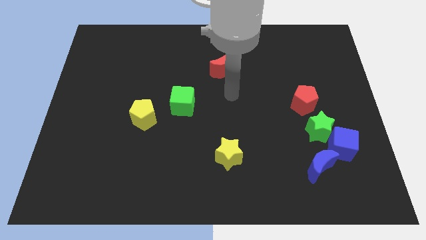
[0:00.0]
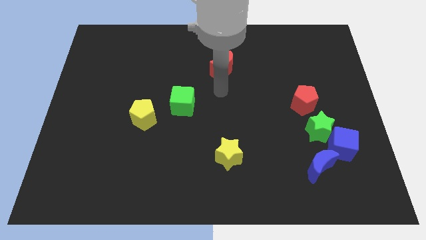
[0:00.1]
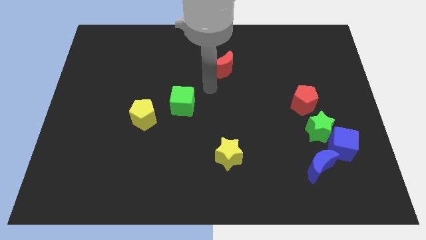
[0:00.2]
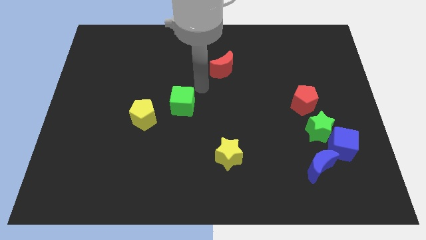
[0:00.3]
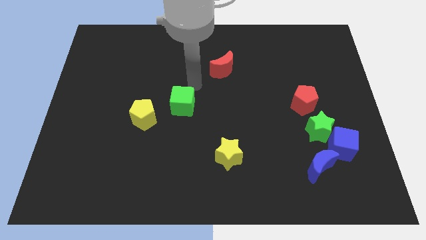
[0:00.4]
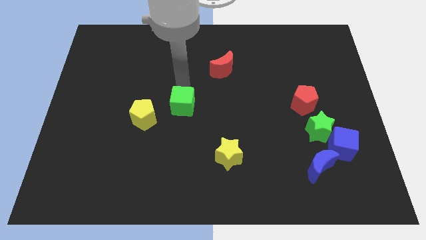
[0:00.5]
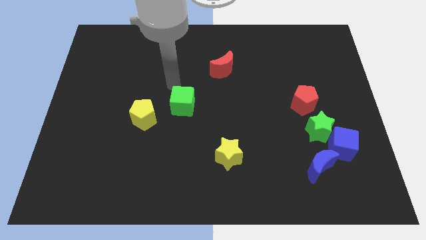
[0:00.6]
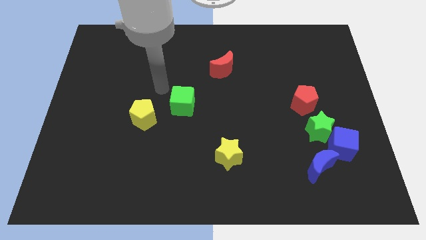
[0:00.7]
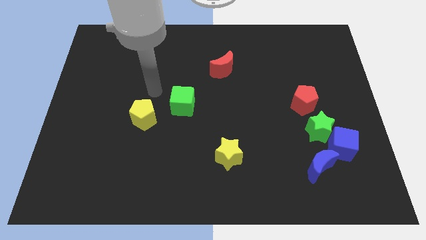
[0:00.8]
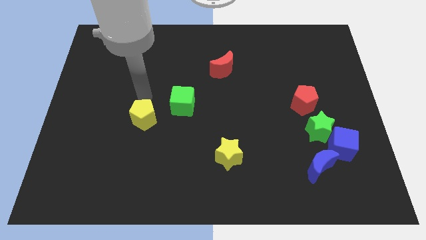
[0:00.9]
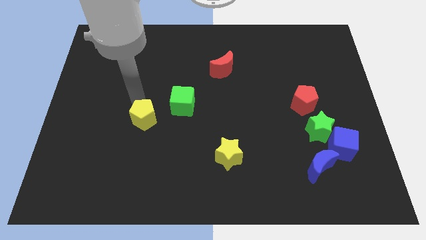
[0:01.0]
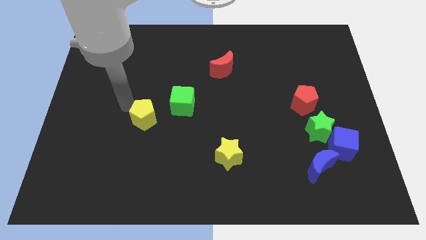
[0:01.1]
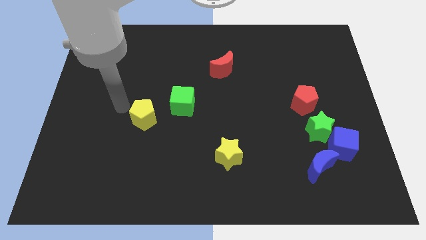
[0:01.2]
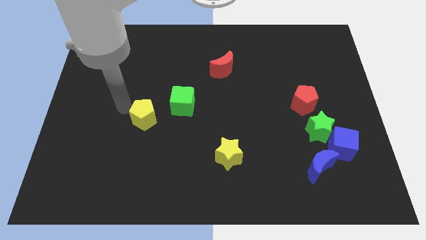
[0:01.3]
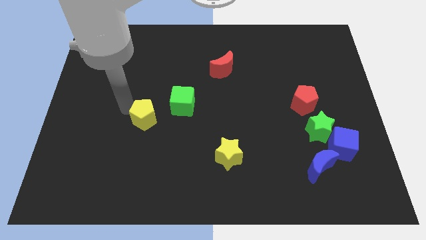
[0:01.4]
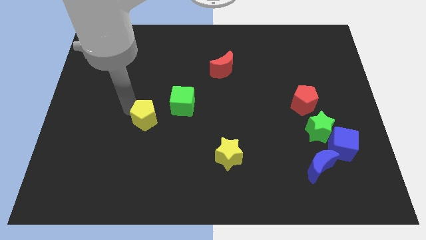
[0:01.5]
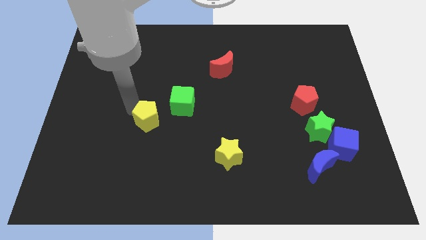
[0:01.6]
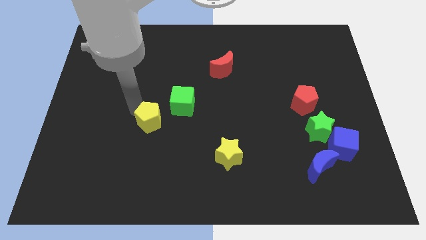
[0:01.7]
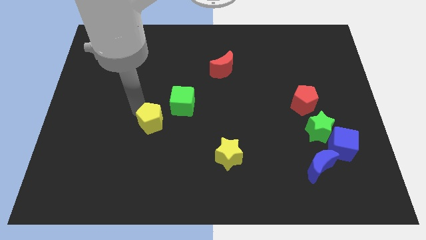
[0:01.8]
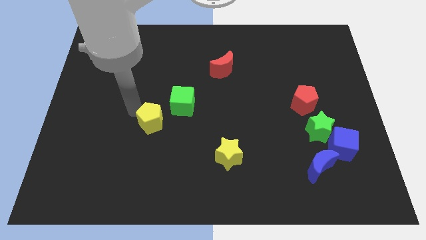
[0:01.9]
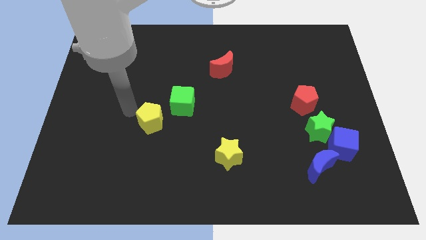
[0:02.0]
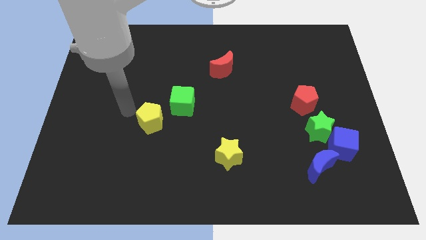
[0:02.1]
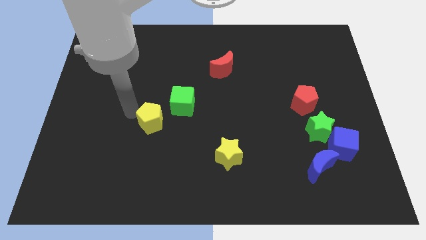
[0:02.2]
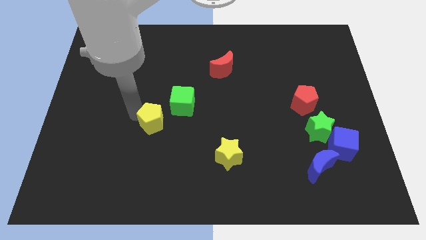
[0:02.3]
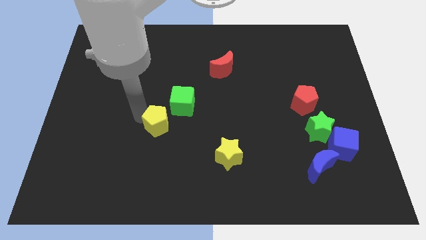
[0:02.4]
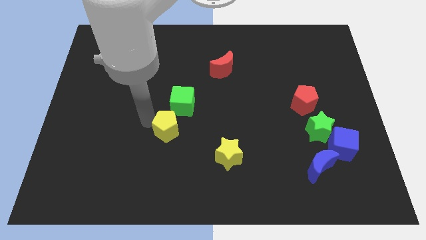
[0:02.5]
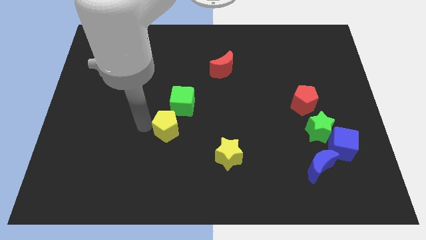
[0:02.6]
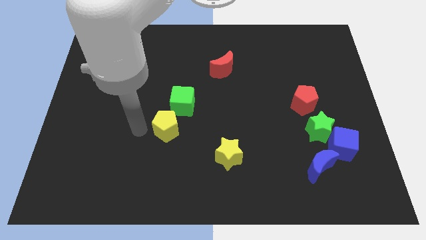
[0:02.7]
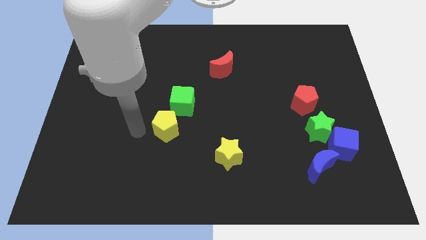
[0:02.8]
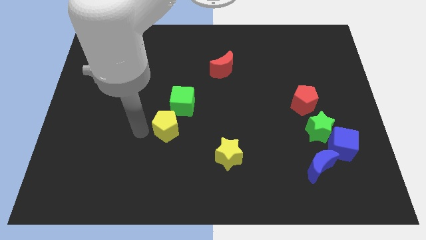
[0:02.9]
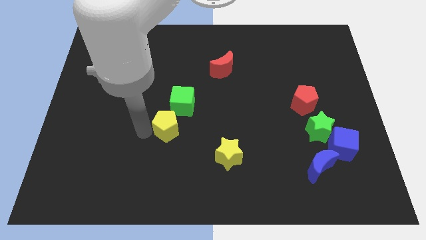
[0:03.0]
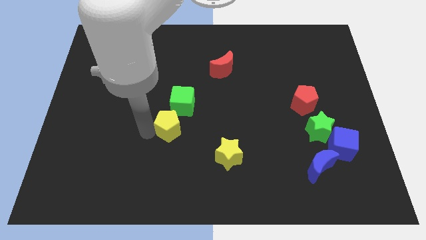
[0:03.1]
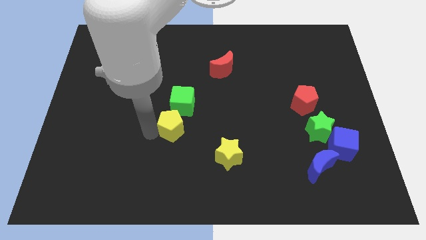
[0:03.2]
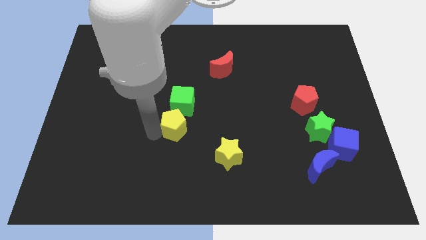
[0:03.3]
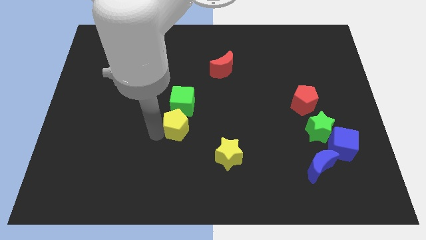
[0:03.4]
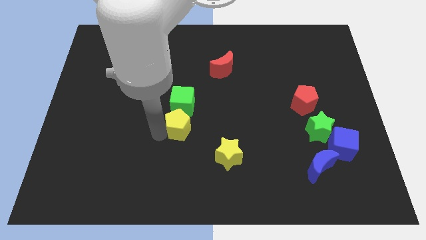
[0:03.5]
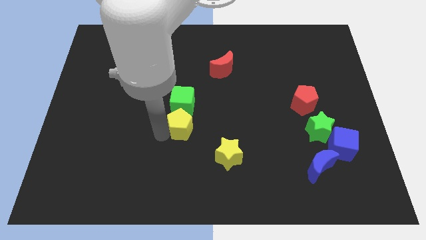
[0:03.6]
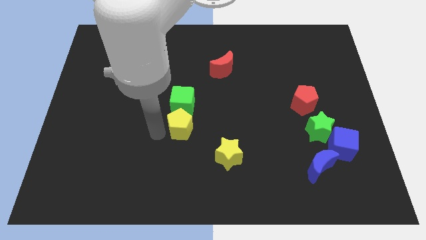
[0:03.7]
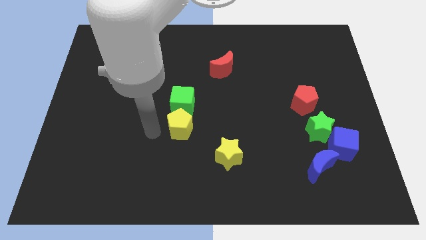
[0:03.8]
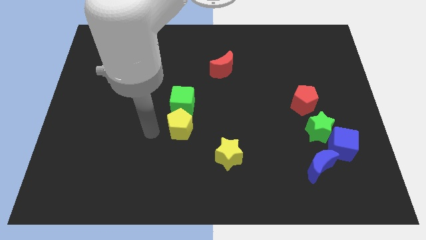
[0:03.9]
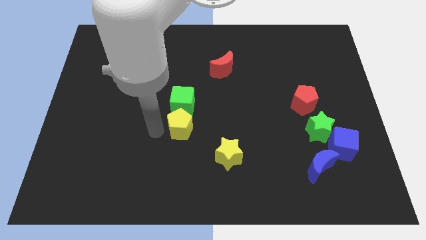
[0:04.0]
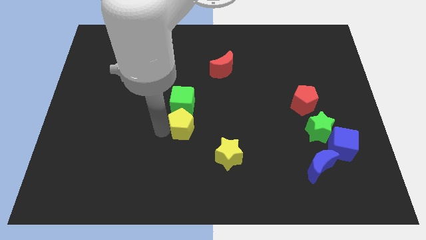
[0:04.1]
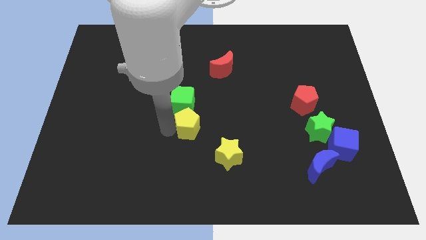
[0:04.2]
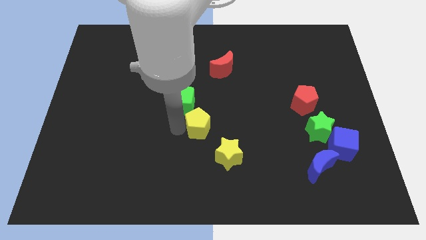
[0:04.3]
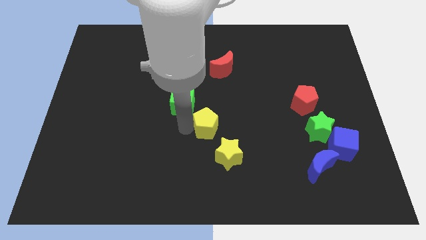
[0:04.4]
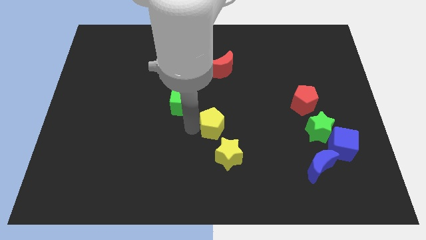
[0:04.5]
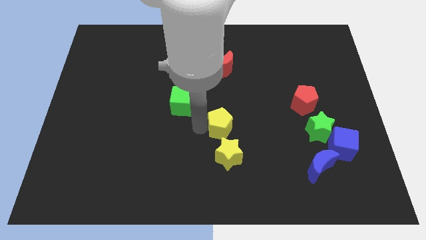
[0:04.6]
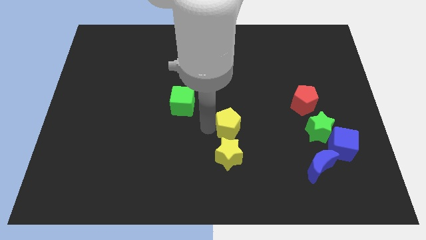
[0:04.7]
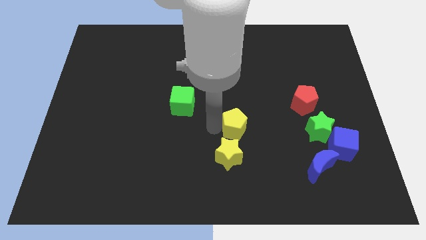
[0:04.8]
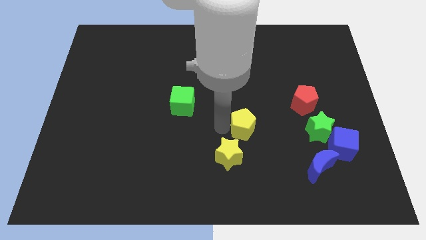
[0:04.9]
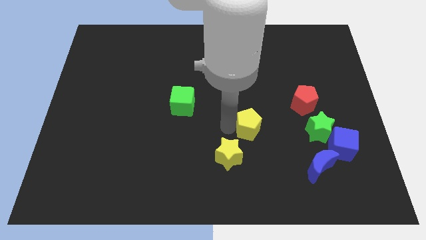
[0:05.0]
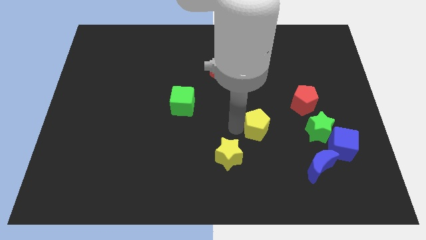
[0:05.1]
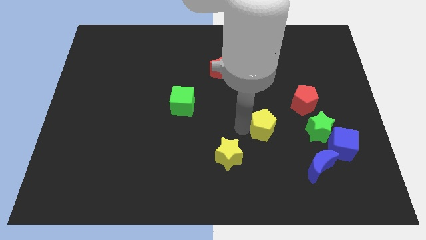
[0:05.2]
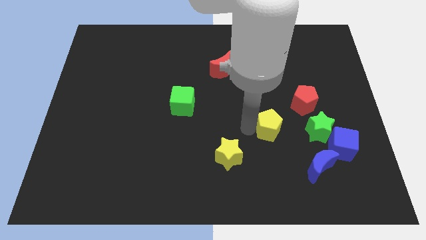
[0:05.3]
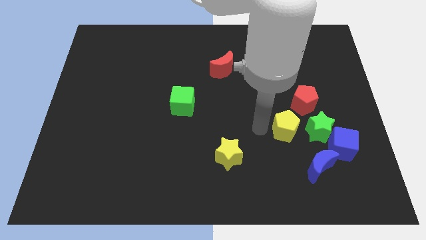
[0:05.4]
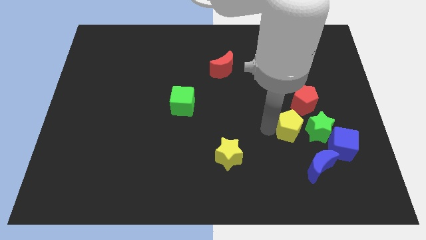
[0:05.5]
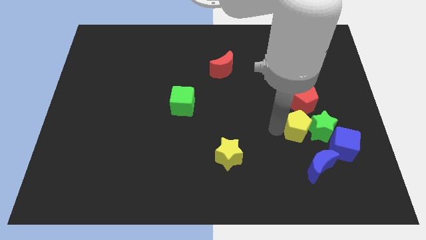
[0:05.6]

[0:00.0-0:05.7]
push the yellow pentagon close to the green star

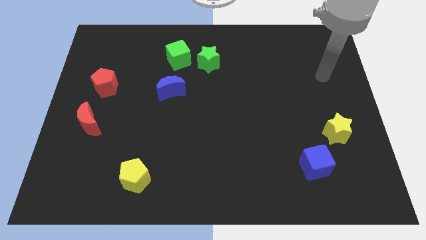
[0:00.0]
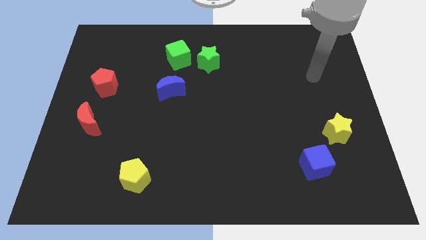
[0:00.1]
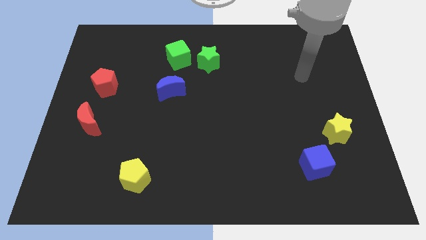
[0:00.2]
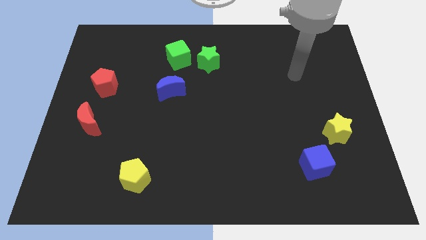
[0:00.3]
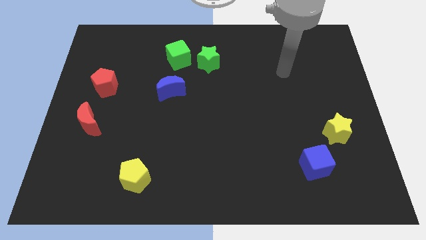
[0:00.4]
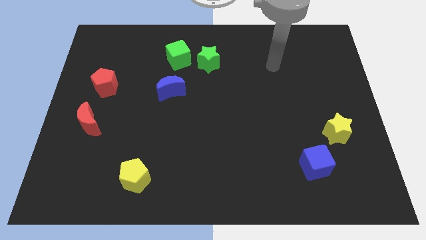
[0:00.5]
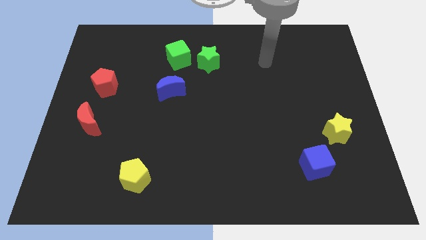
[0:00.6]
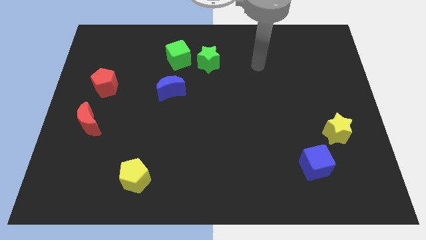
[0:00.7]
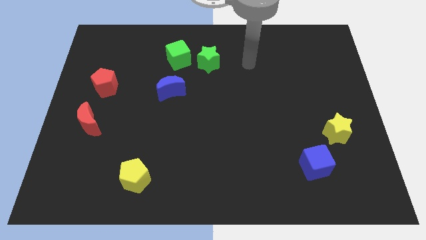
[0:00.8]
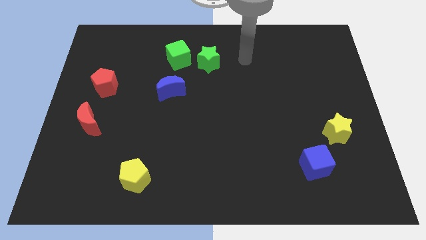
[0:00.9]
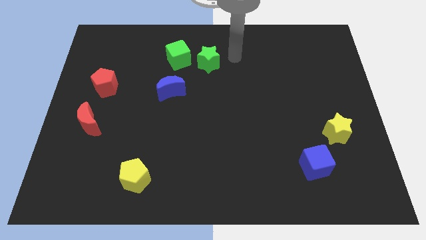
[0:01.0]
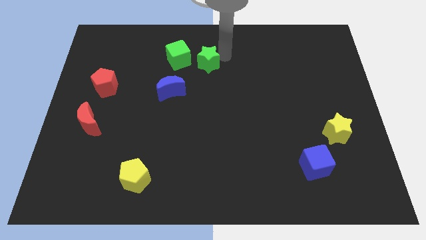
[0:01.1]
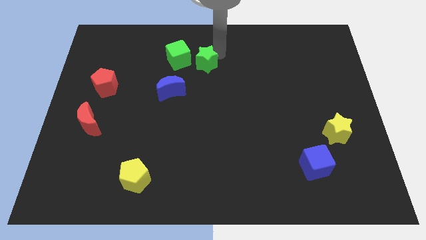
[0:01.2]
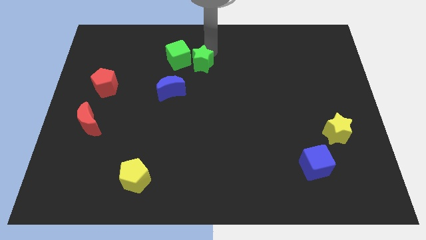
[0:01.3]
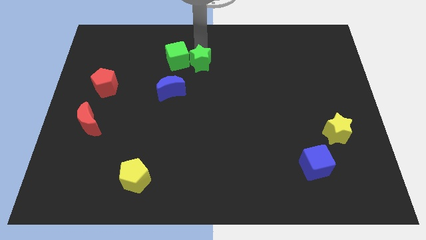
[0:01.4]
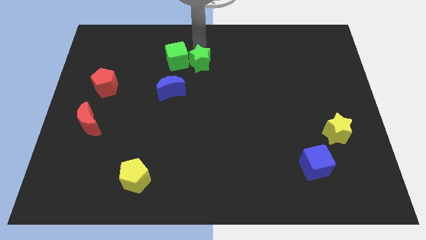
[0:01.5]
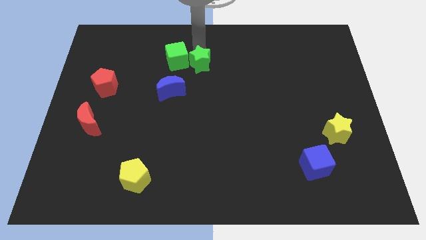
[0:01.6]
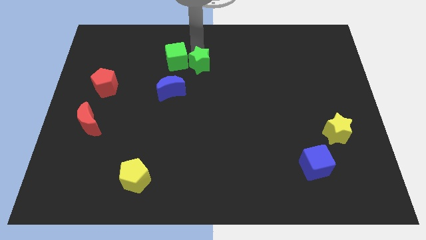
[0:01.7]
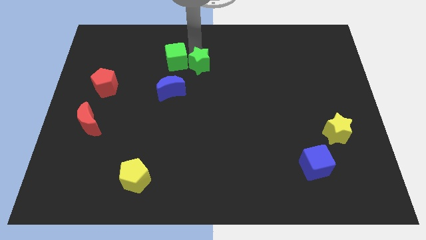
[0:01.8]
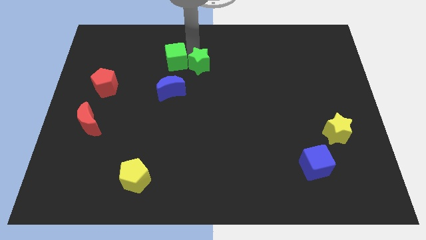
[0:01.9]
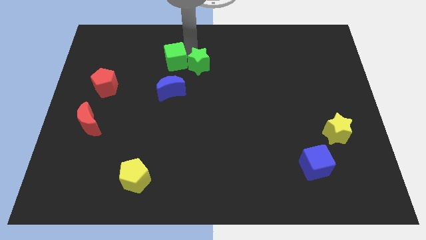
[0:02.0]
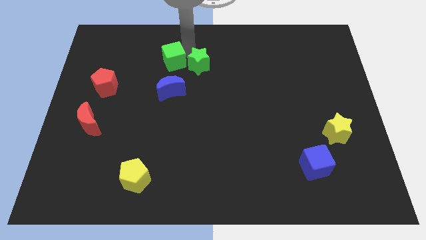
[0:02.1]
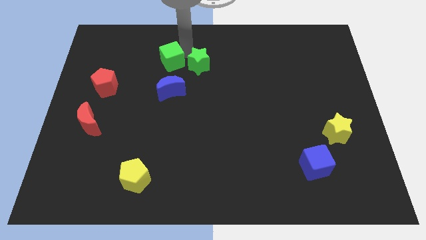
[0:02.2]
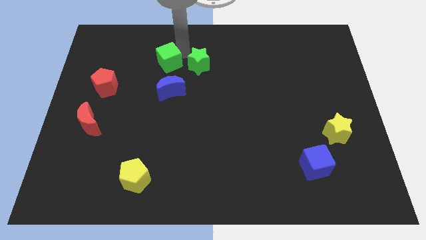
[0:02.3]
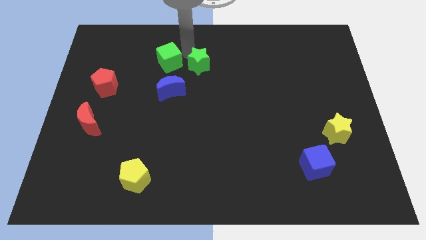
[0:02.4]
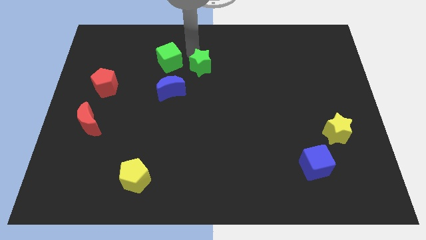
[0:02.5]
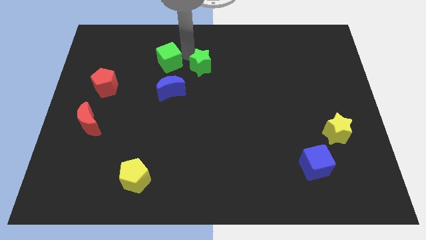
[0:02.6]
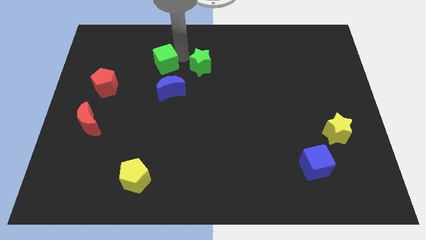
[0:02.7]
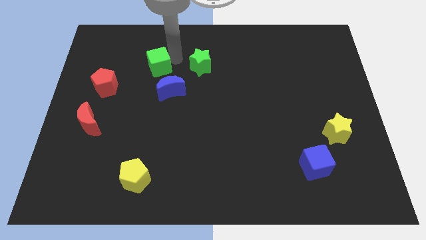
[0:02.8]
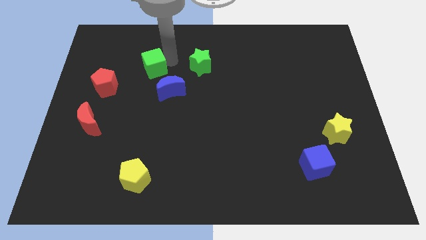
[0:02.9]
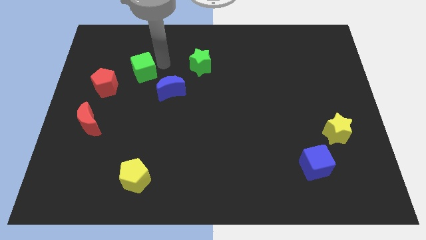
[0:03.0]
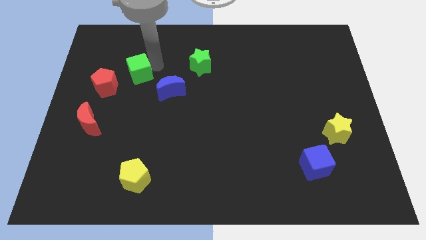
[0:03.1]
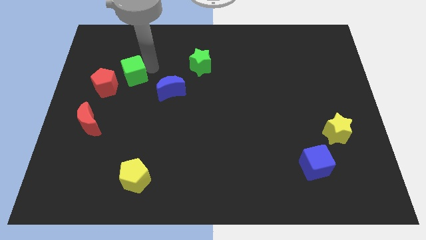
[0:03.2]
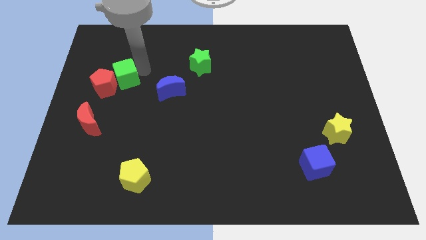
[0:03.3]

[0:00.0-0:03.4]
slide the green cube next to the red pentagon
